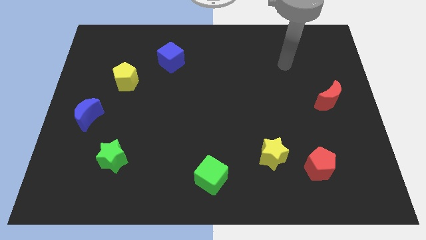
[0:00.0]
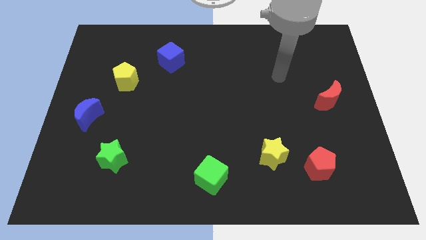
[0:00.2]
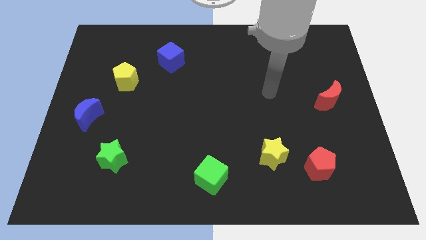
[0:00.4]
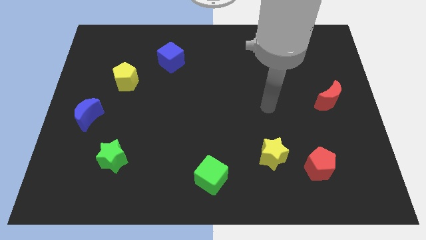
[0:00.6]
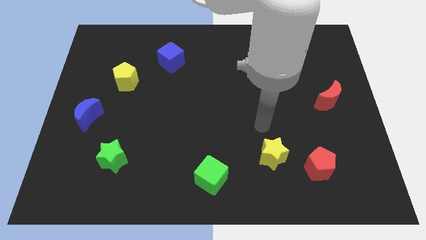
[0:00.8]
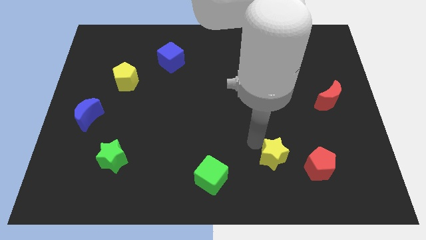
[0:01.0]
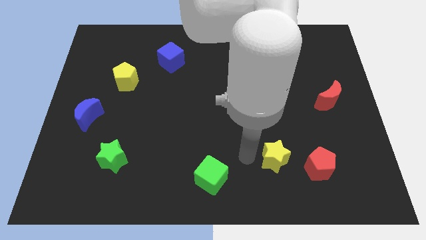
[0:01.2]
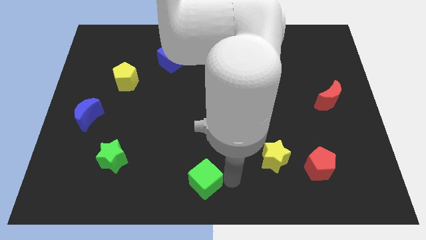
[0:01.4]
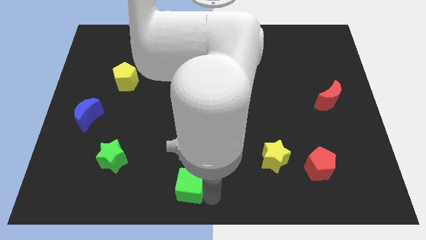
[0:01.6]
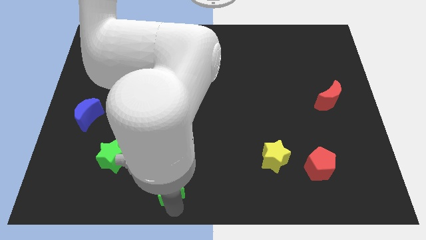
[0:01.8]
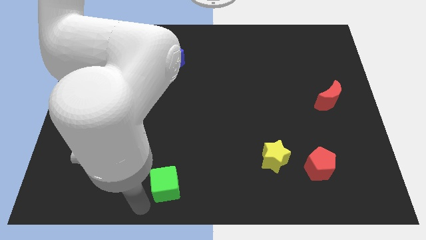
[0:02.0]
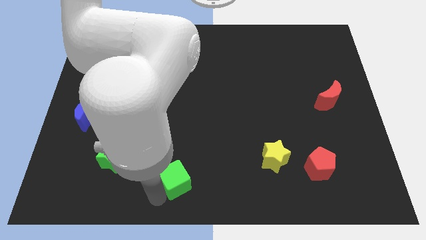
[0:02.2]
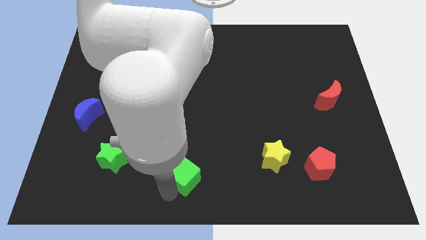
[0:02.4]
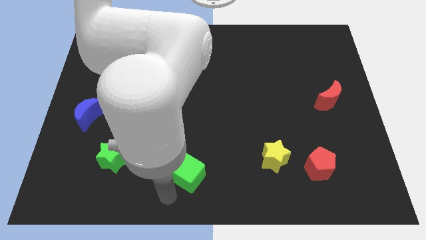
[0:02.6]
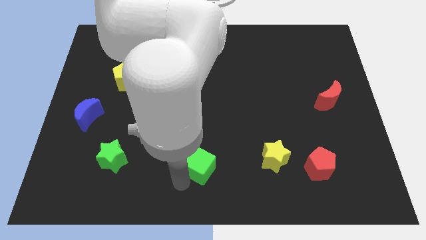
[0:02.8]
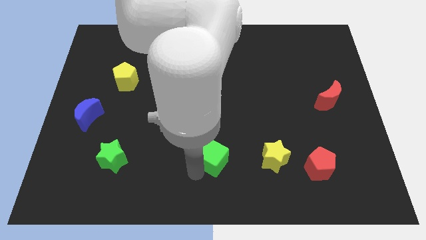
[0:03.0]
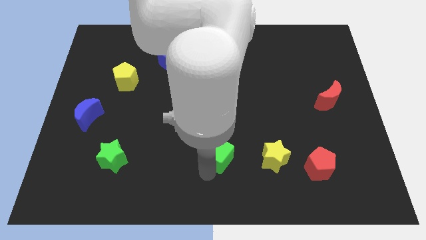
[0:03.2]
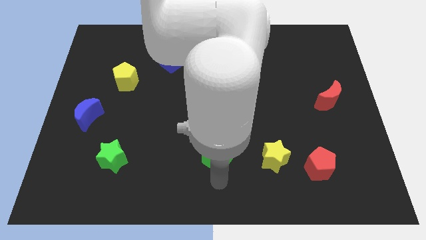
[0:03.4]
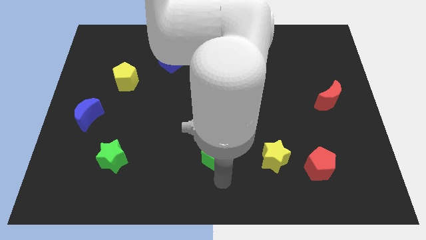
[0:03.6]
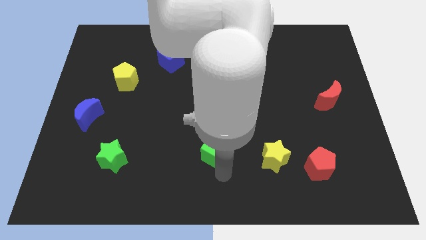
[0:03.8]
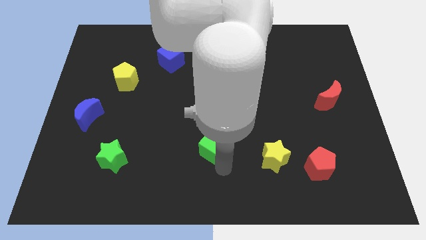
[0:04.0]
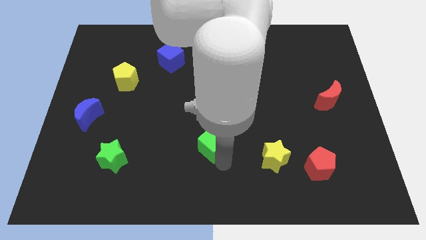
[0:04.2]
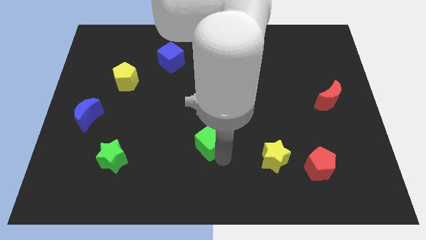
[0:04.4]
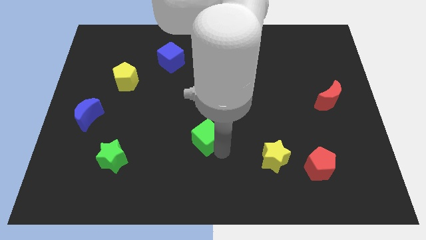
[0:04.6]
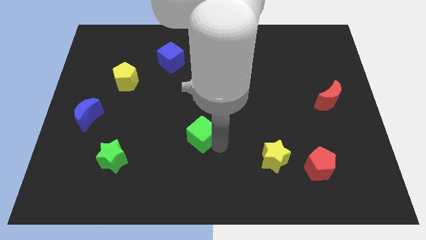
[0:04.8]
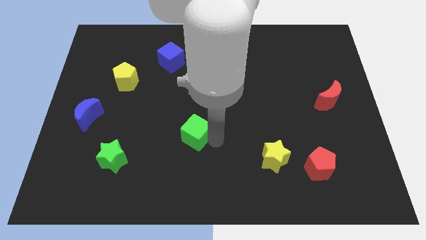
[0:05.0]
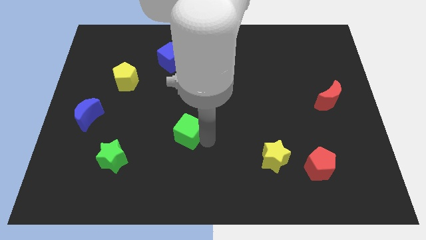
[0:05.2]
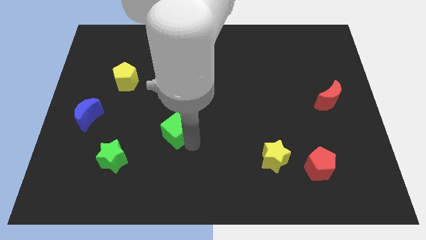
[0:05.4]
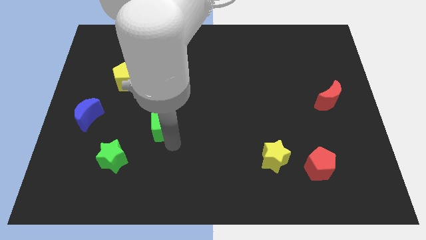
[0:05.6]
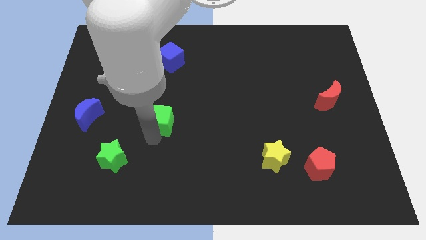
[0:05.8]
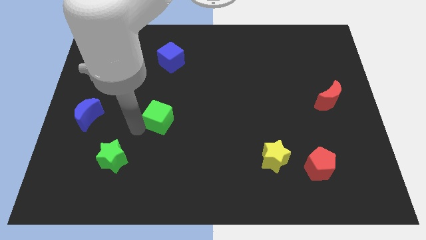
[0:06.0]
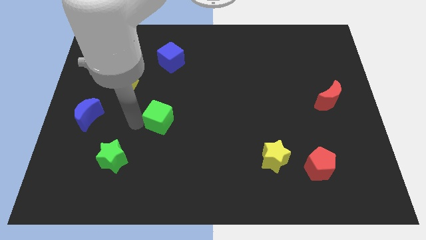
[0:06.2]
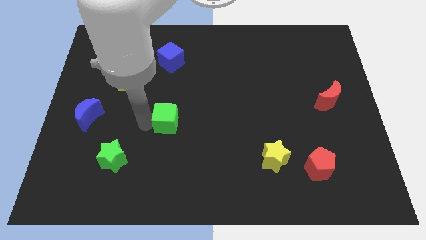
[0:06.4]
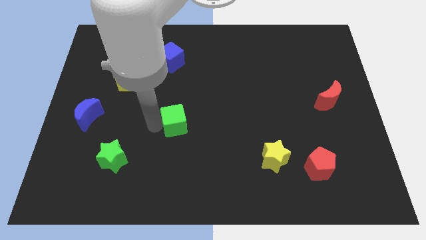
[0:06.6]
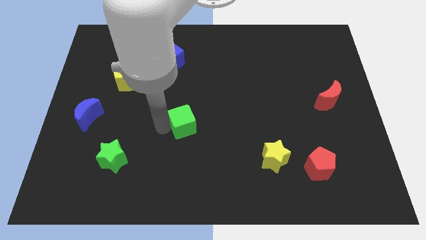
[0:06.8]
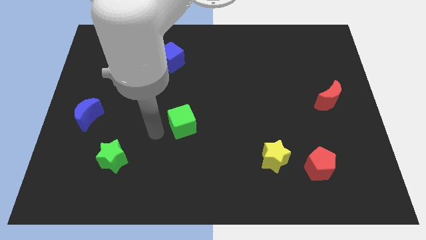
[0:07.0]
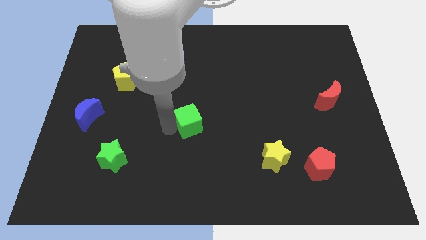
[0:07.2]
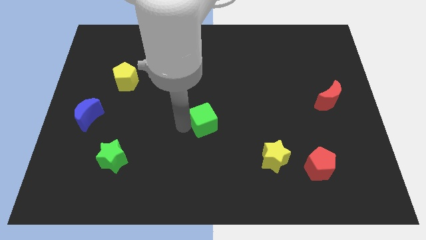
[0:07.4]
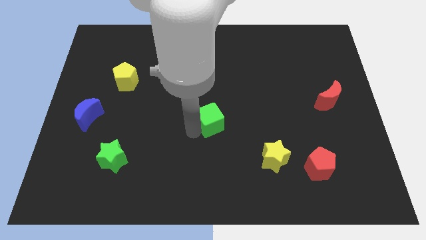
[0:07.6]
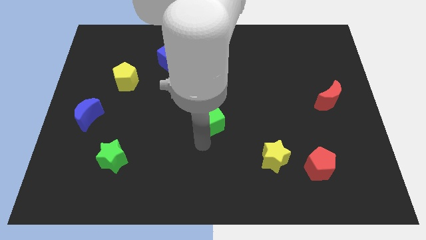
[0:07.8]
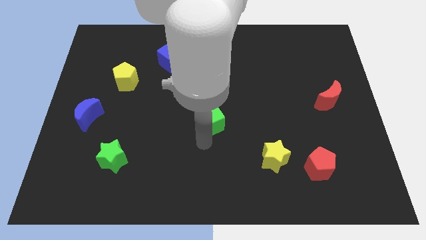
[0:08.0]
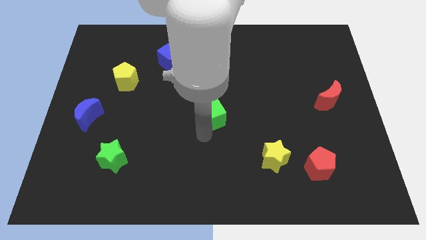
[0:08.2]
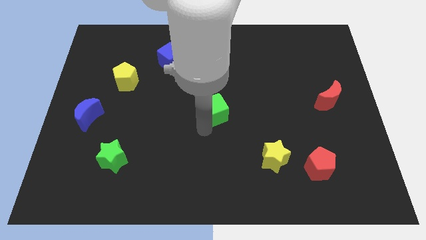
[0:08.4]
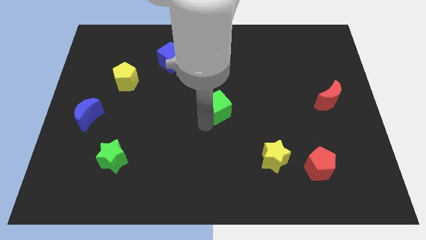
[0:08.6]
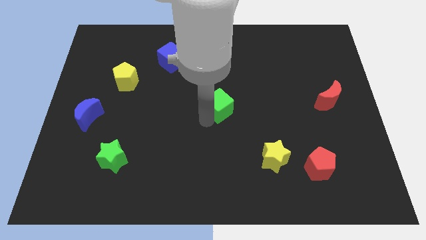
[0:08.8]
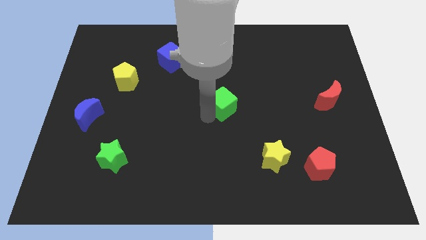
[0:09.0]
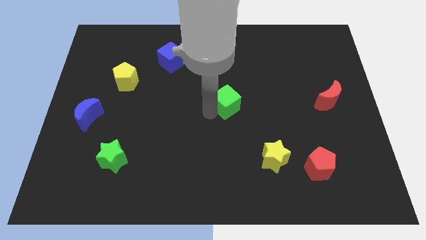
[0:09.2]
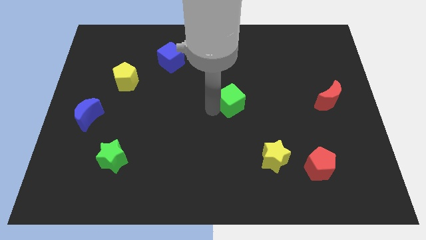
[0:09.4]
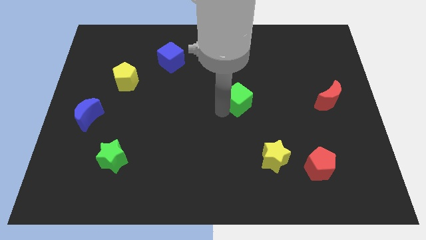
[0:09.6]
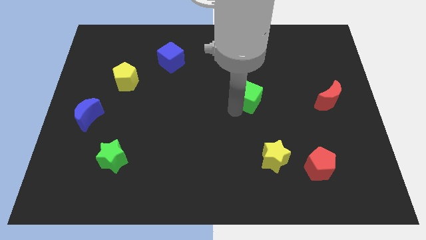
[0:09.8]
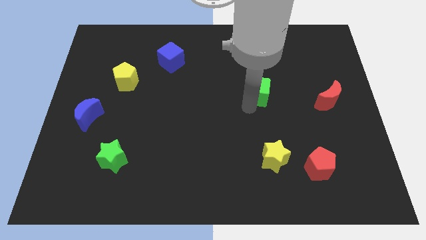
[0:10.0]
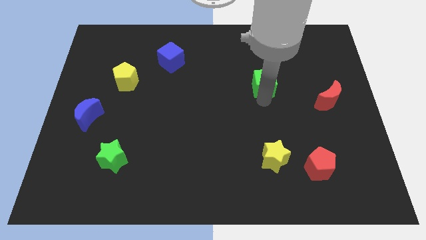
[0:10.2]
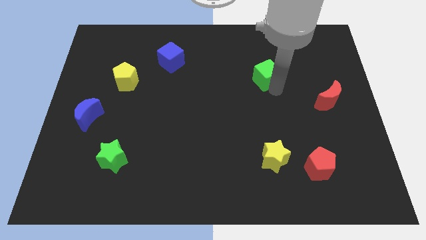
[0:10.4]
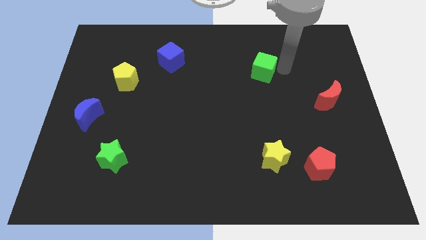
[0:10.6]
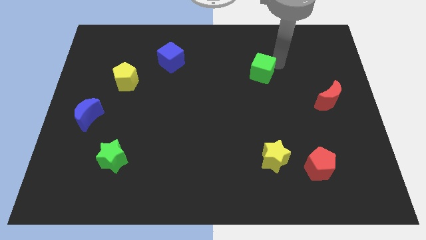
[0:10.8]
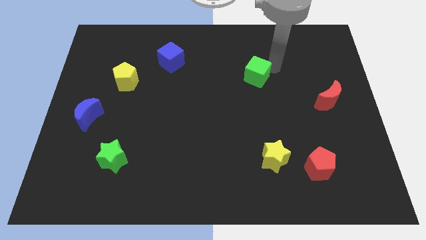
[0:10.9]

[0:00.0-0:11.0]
push the green cube upwards

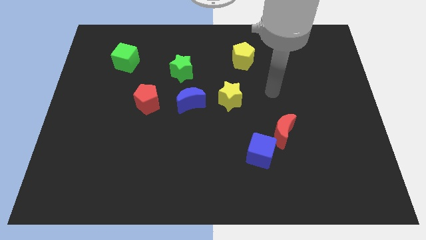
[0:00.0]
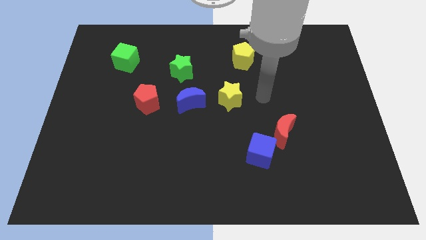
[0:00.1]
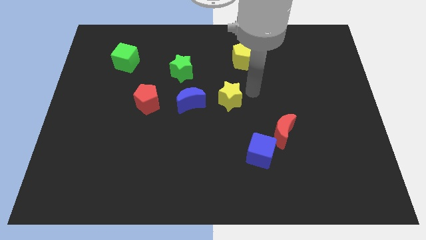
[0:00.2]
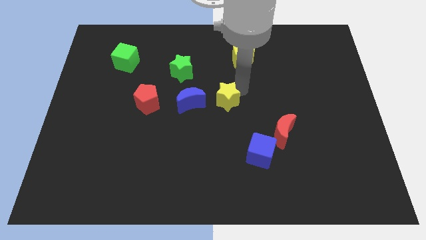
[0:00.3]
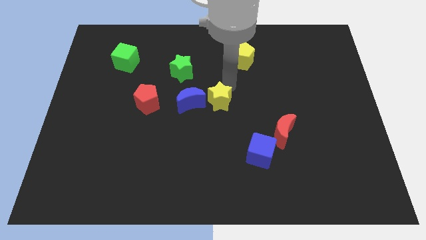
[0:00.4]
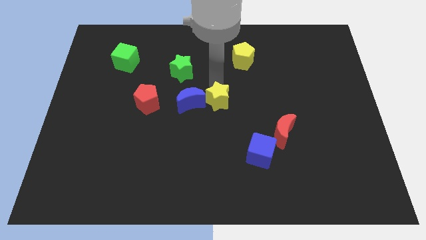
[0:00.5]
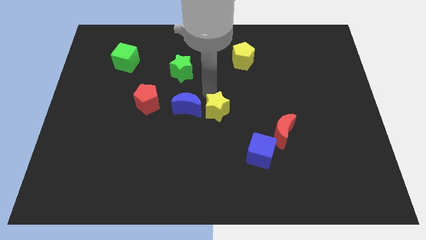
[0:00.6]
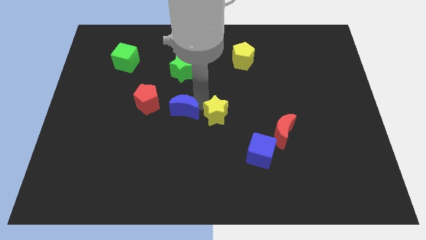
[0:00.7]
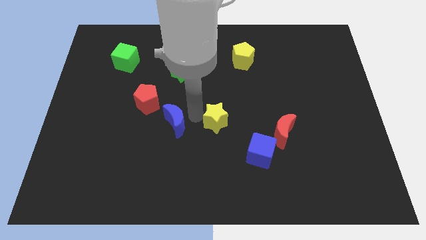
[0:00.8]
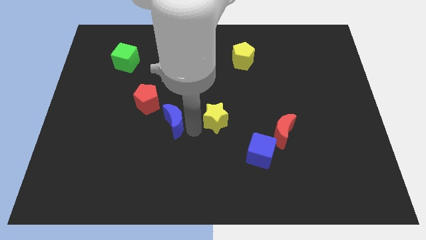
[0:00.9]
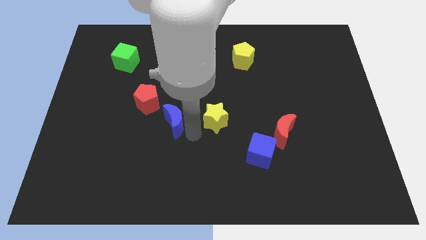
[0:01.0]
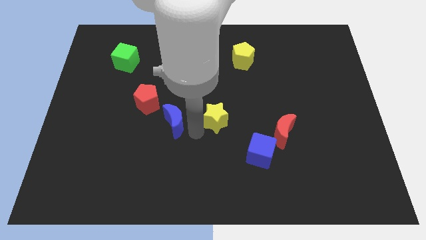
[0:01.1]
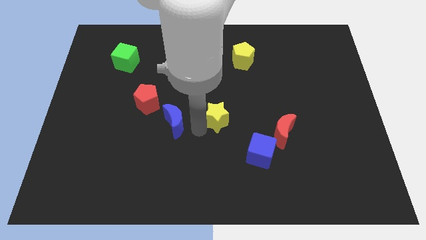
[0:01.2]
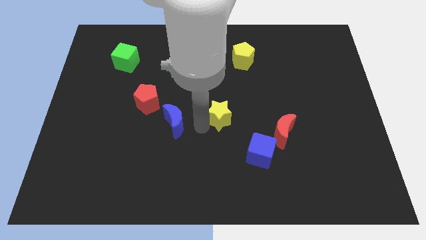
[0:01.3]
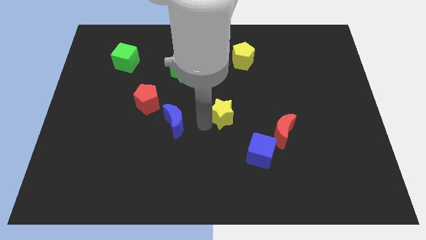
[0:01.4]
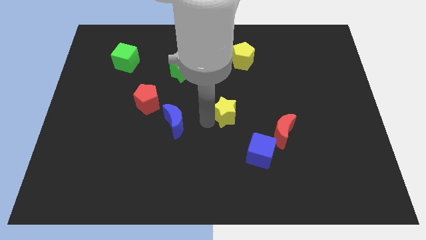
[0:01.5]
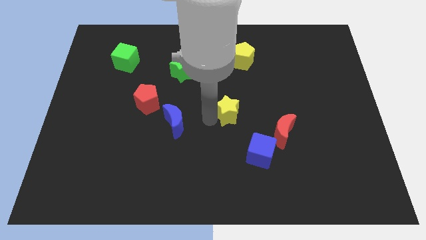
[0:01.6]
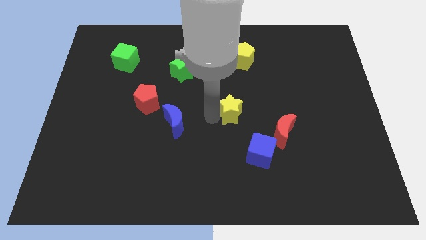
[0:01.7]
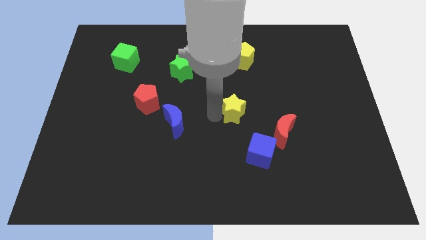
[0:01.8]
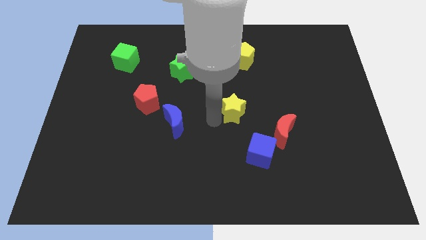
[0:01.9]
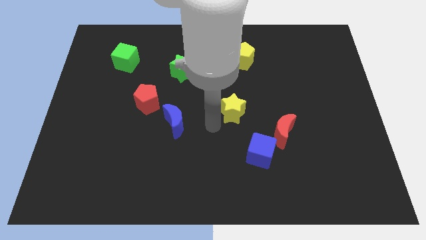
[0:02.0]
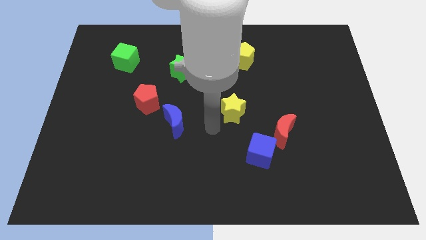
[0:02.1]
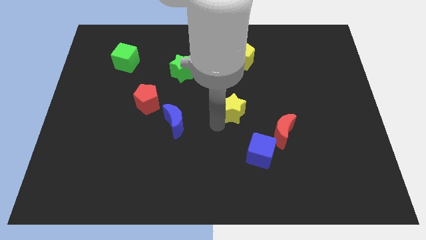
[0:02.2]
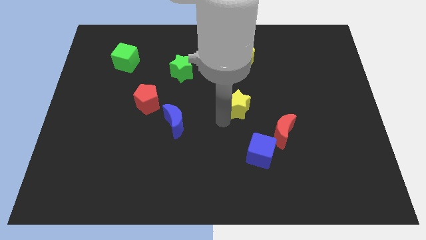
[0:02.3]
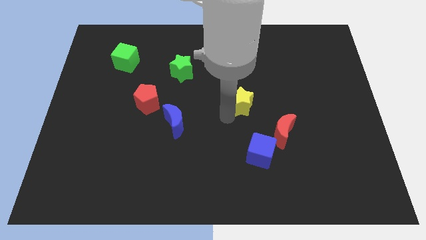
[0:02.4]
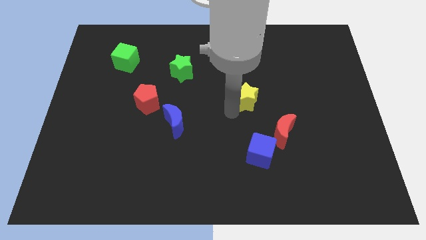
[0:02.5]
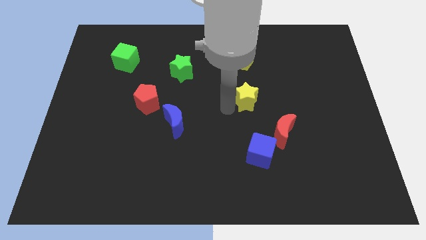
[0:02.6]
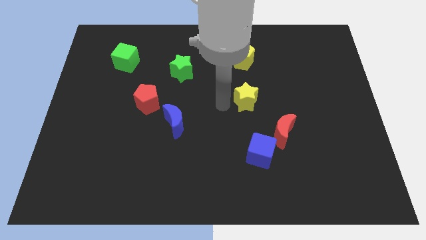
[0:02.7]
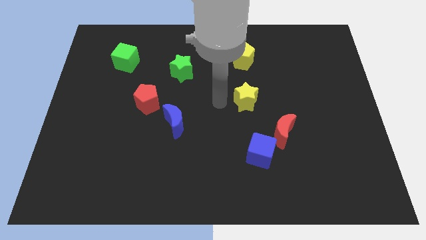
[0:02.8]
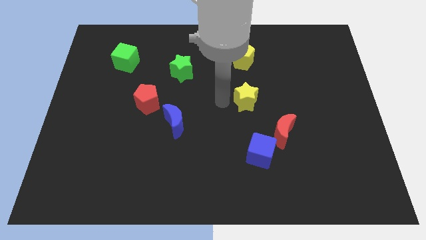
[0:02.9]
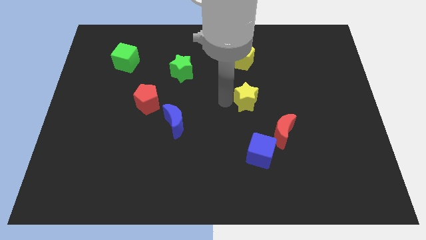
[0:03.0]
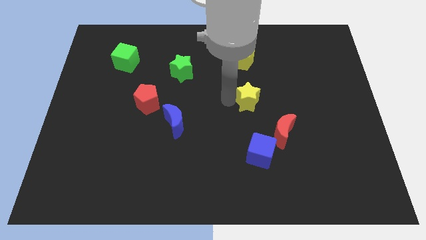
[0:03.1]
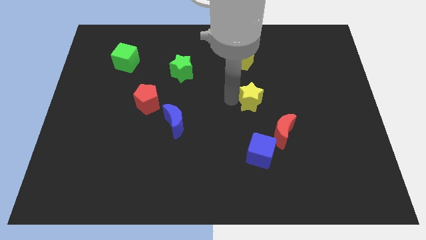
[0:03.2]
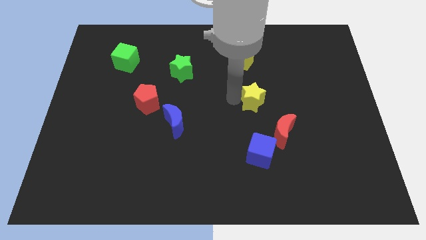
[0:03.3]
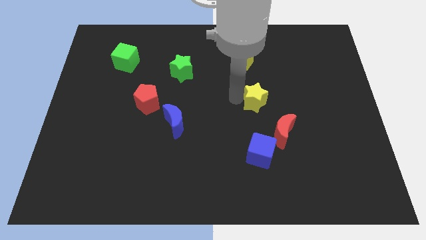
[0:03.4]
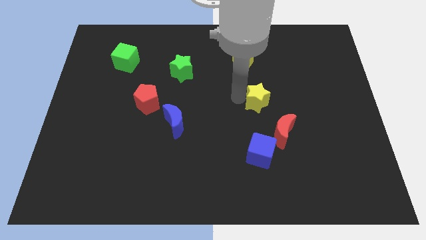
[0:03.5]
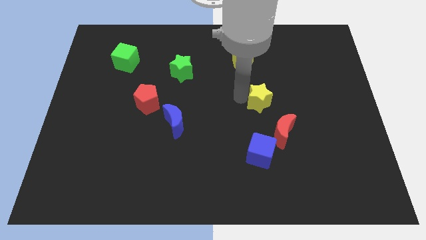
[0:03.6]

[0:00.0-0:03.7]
push the yellow star right somewhat
